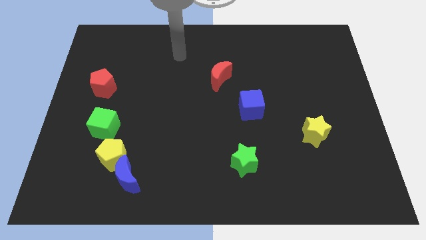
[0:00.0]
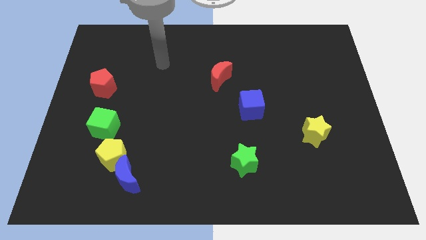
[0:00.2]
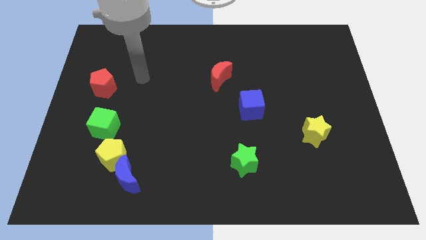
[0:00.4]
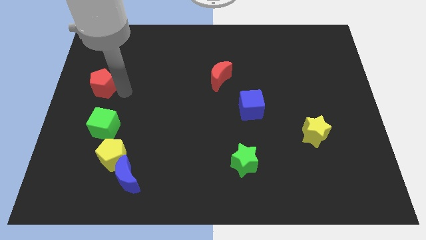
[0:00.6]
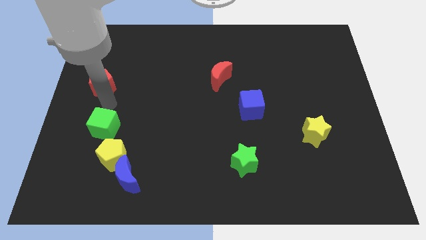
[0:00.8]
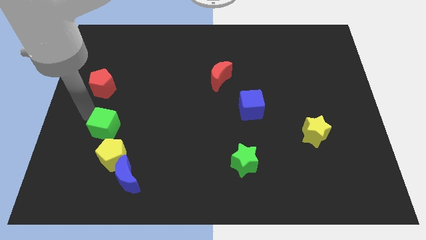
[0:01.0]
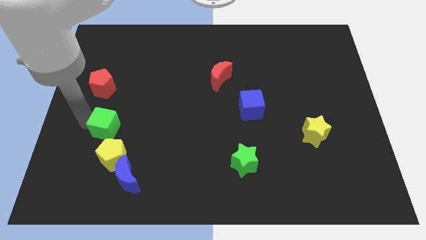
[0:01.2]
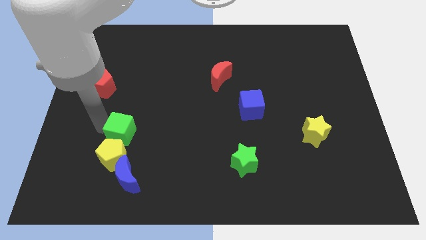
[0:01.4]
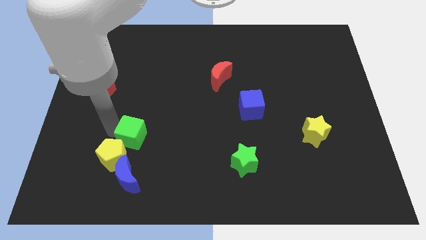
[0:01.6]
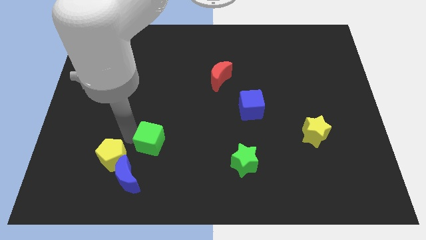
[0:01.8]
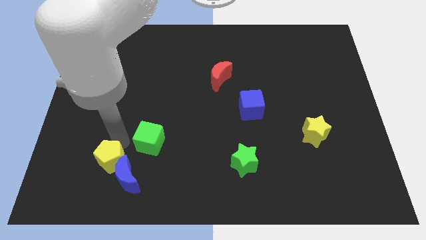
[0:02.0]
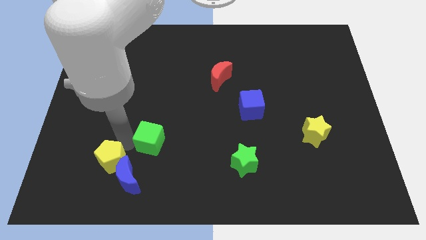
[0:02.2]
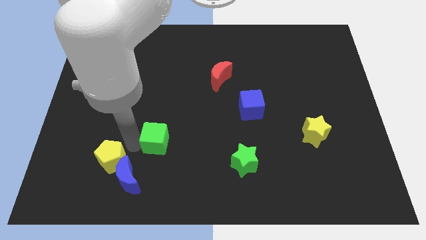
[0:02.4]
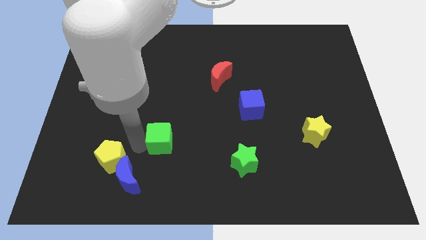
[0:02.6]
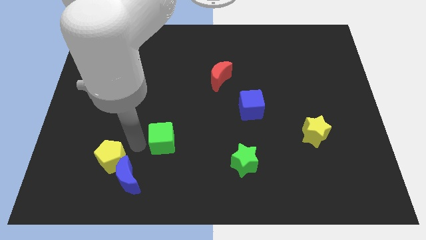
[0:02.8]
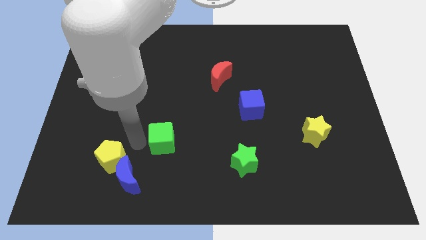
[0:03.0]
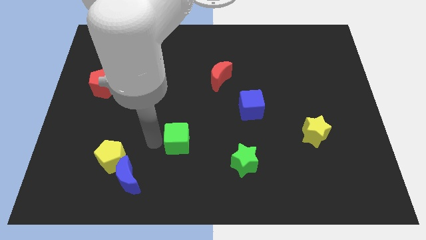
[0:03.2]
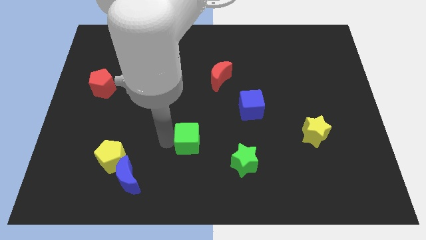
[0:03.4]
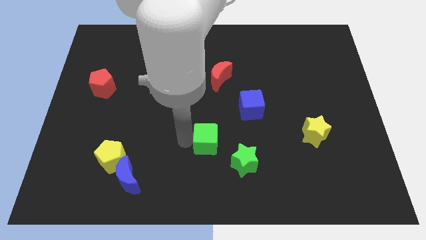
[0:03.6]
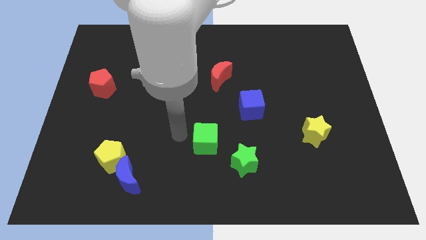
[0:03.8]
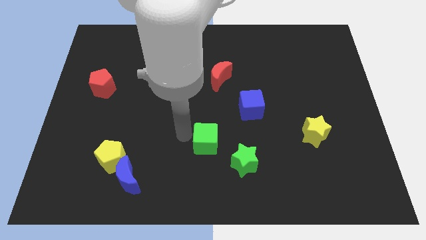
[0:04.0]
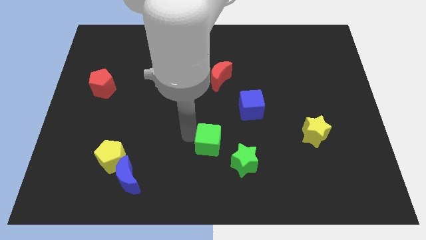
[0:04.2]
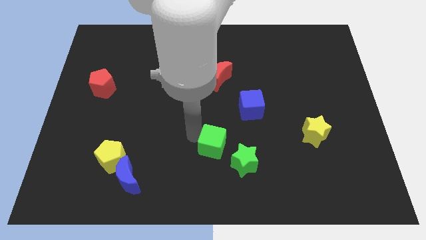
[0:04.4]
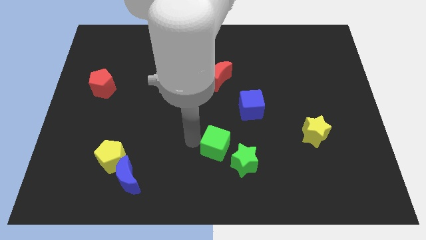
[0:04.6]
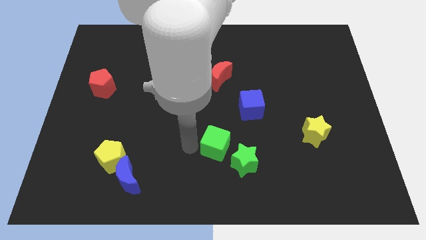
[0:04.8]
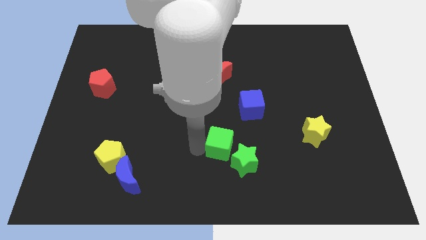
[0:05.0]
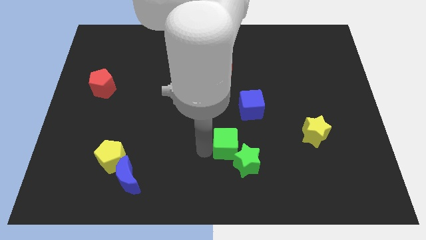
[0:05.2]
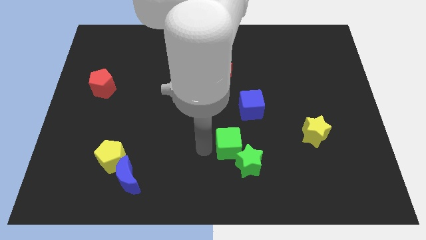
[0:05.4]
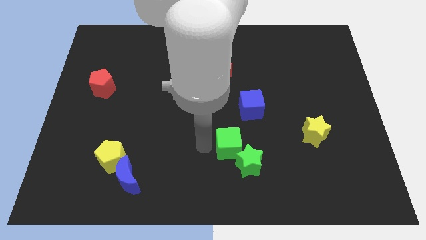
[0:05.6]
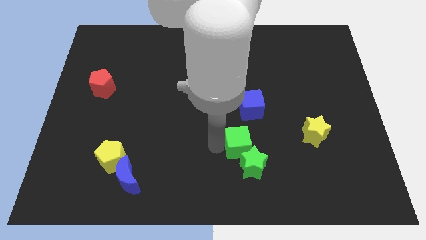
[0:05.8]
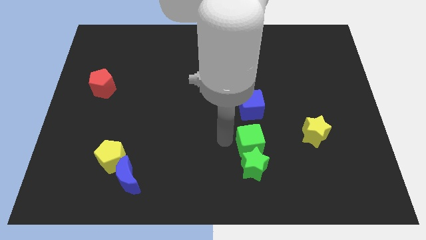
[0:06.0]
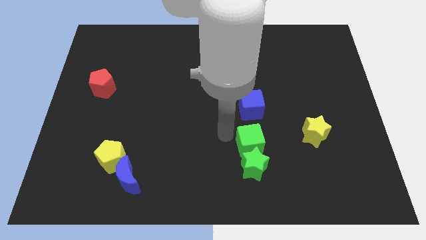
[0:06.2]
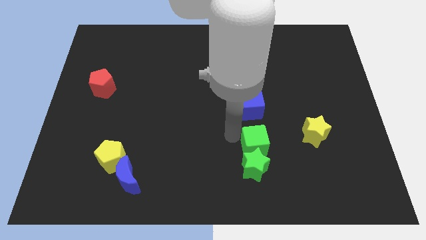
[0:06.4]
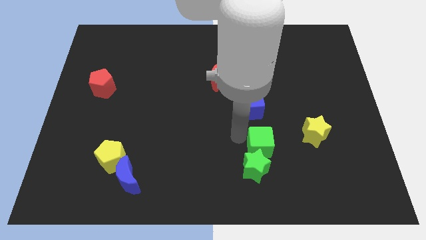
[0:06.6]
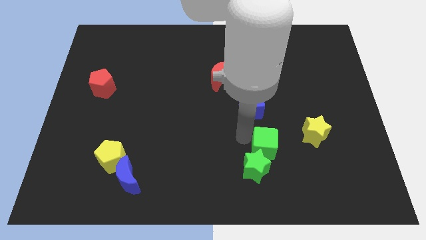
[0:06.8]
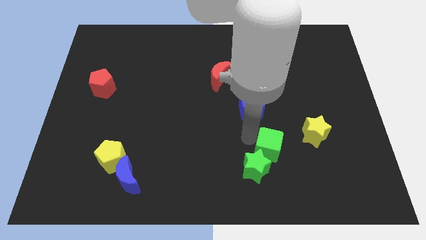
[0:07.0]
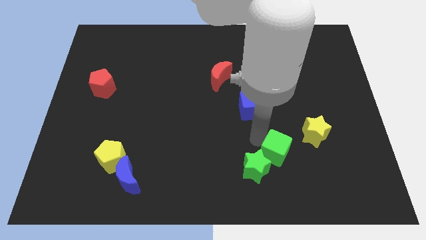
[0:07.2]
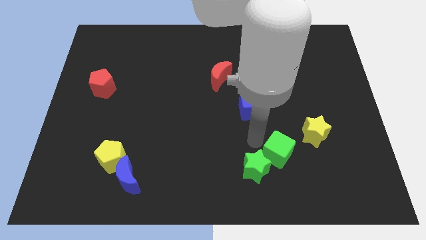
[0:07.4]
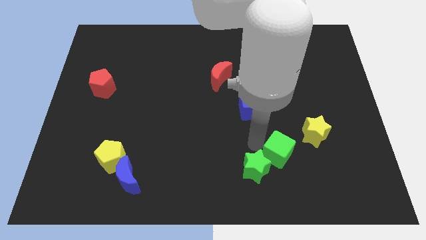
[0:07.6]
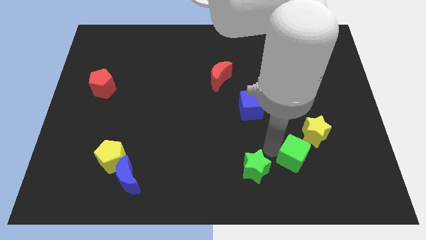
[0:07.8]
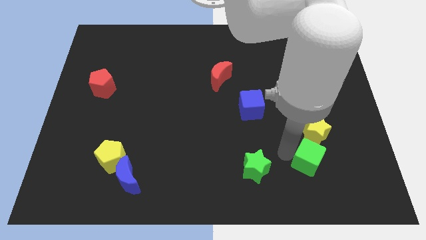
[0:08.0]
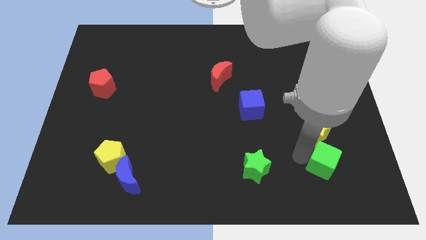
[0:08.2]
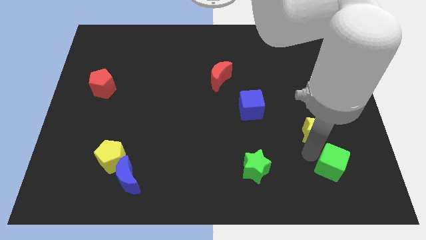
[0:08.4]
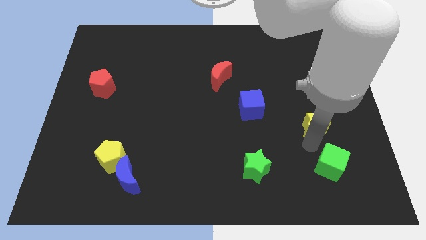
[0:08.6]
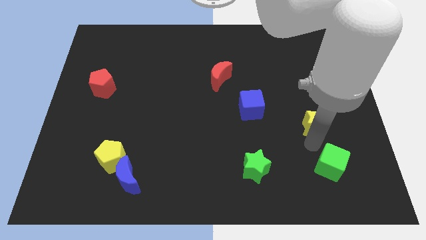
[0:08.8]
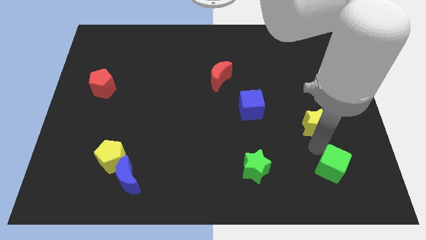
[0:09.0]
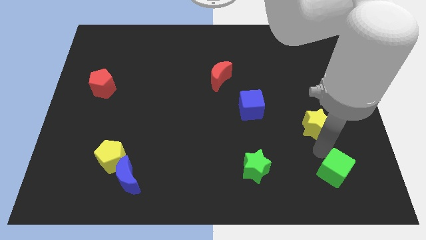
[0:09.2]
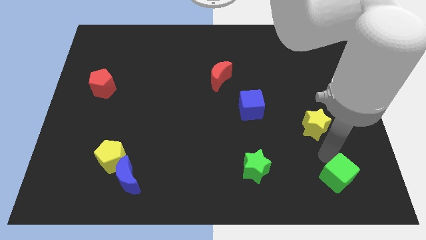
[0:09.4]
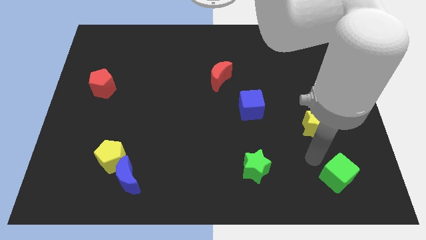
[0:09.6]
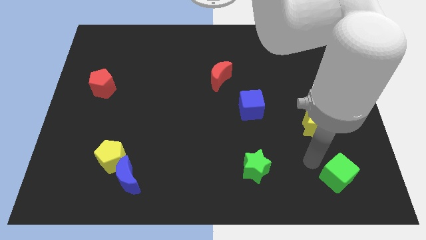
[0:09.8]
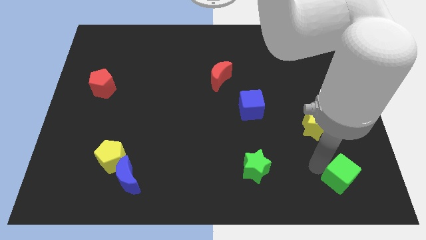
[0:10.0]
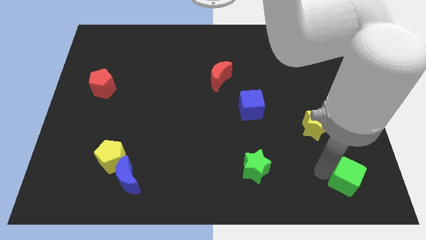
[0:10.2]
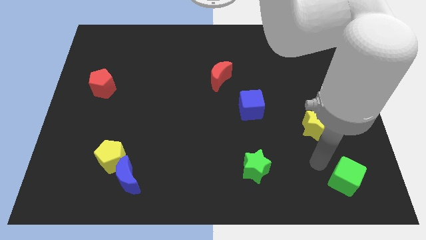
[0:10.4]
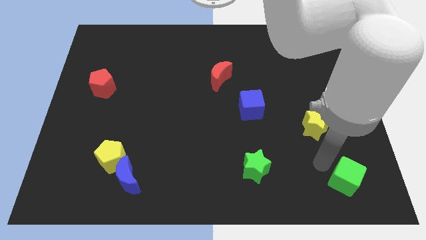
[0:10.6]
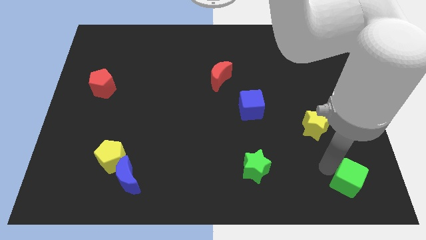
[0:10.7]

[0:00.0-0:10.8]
put the green cube to the bottom right of the board

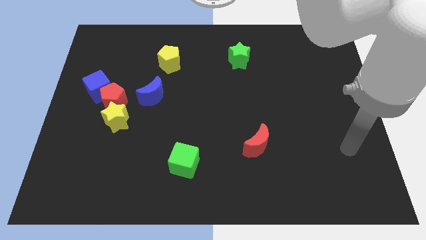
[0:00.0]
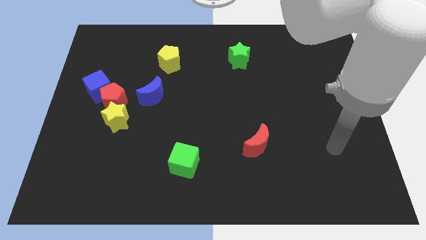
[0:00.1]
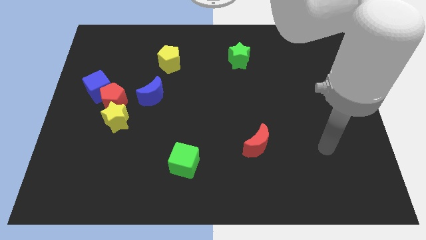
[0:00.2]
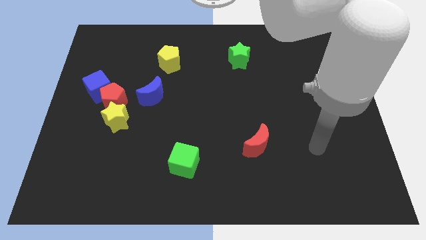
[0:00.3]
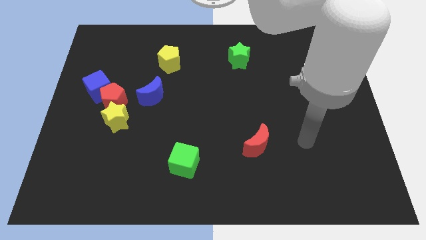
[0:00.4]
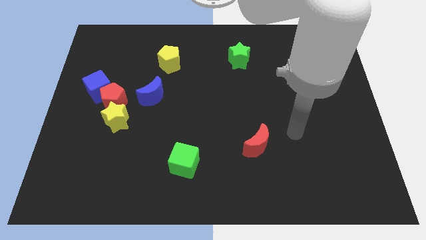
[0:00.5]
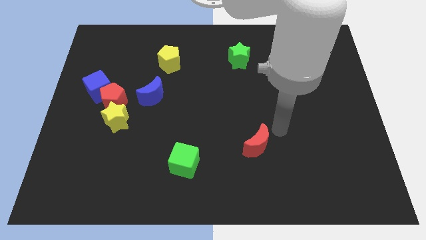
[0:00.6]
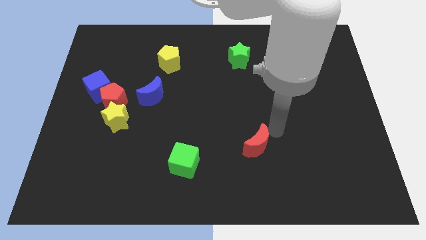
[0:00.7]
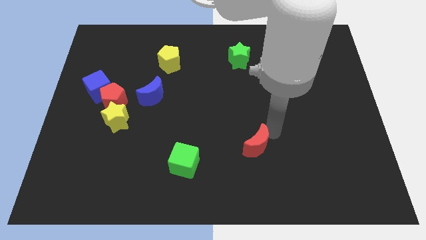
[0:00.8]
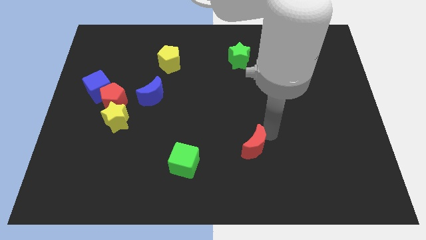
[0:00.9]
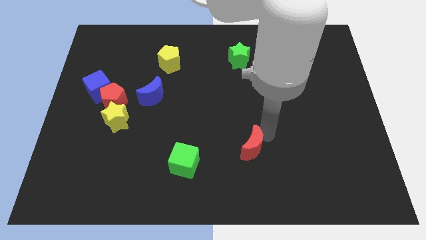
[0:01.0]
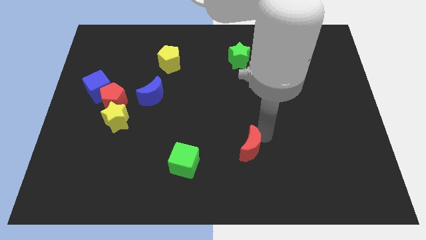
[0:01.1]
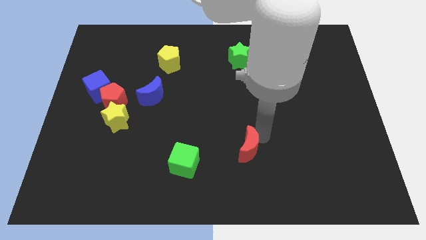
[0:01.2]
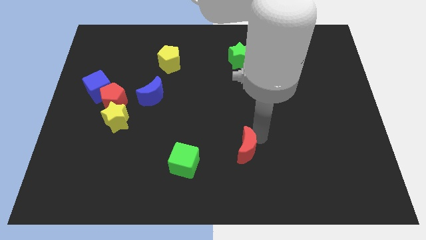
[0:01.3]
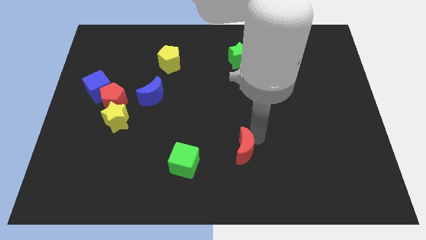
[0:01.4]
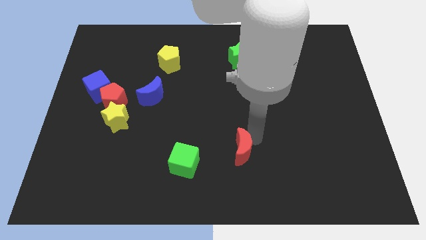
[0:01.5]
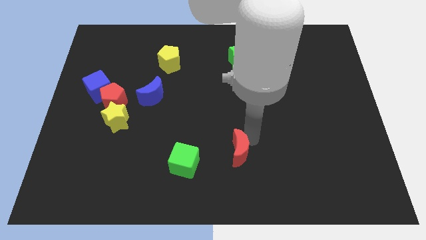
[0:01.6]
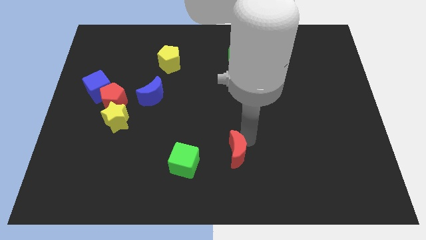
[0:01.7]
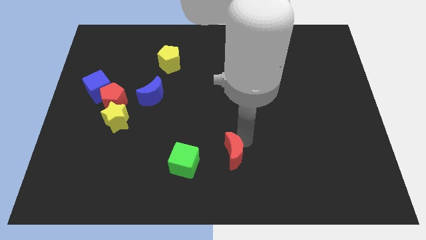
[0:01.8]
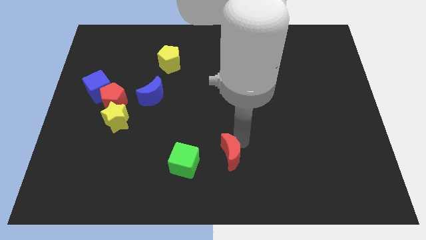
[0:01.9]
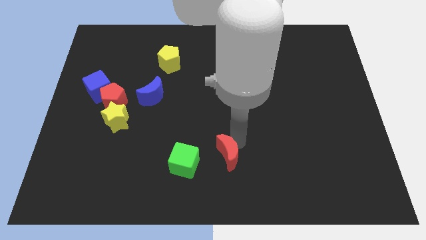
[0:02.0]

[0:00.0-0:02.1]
slide the red moon to the bottom
